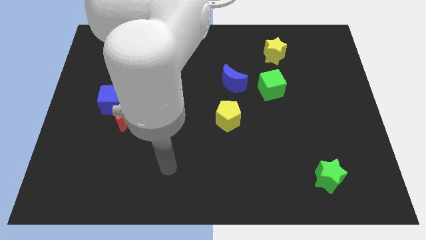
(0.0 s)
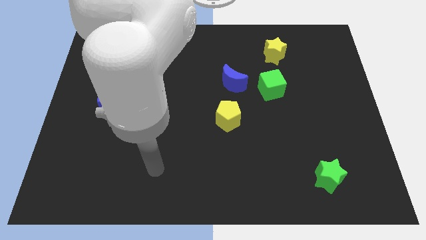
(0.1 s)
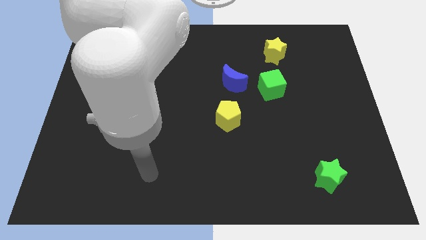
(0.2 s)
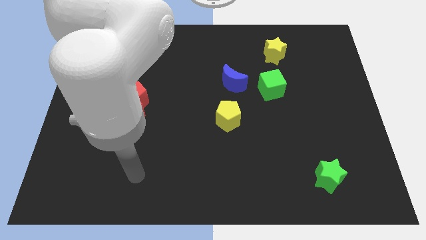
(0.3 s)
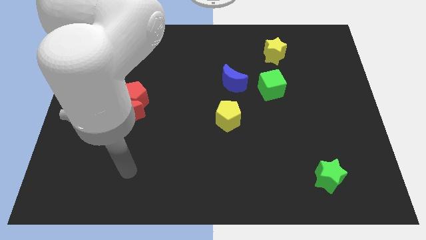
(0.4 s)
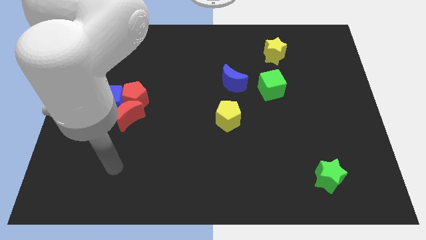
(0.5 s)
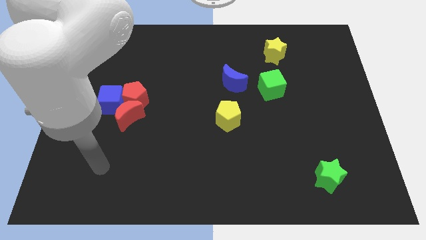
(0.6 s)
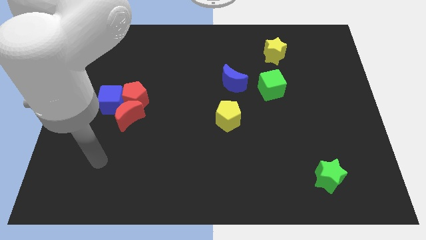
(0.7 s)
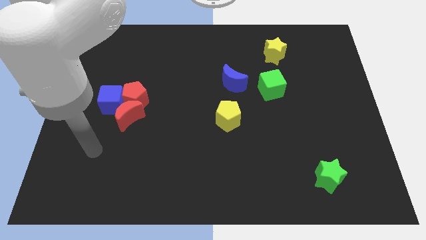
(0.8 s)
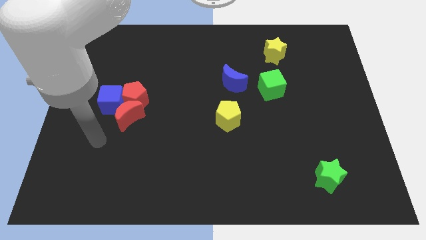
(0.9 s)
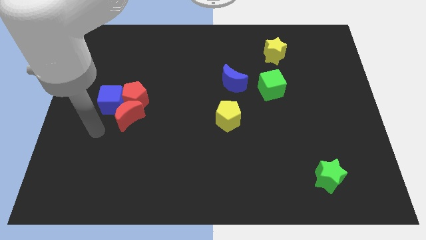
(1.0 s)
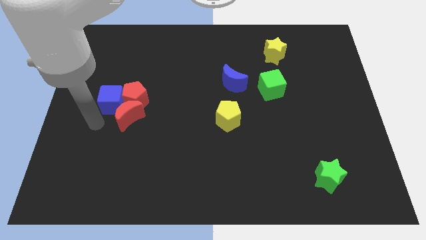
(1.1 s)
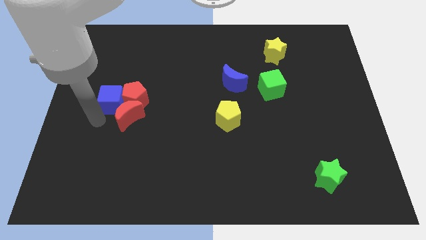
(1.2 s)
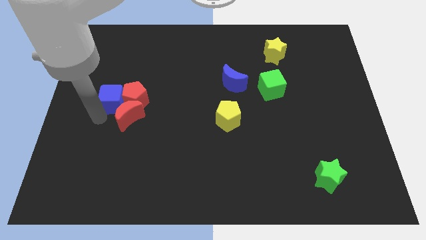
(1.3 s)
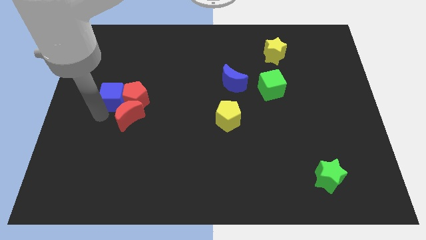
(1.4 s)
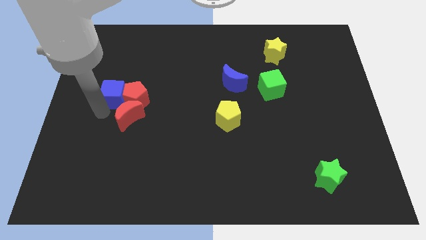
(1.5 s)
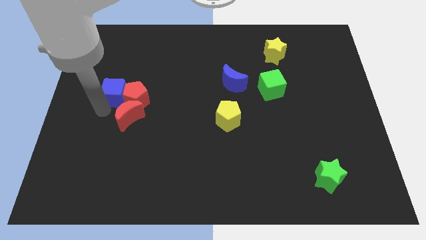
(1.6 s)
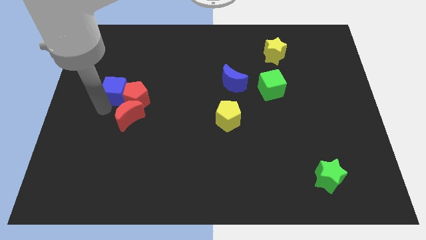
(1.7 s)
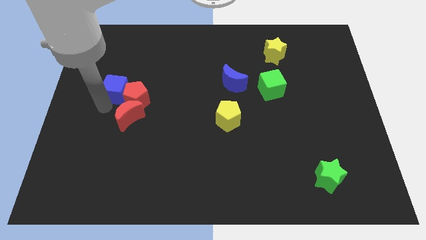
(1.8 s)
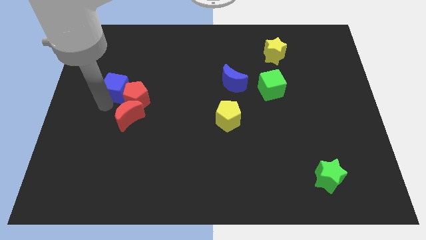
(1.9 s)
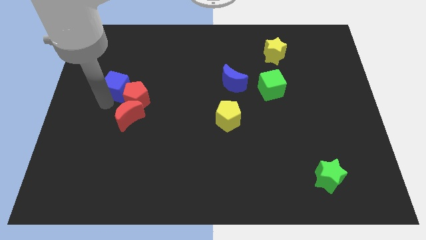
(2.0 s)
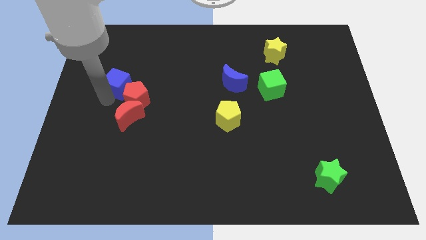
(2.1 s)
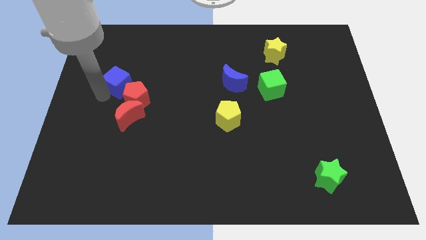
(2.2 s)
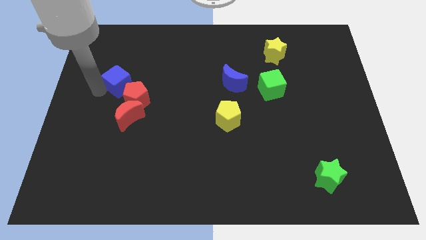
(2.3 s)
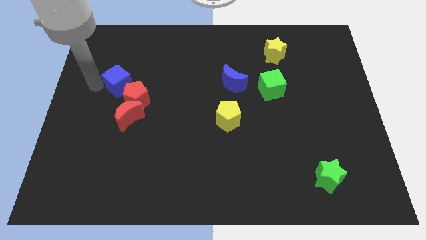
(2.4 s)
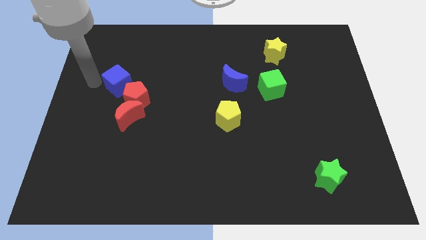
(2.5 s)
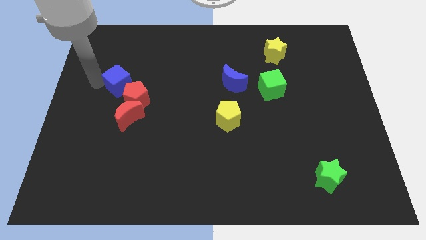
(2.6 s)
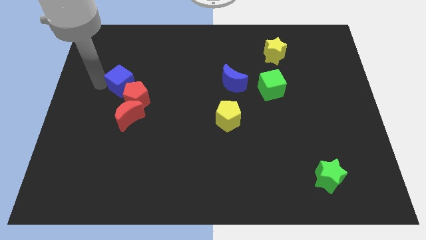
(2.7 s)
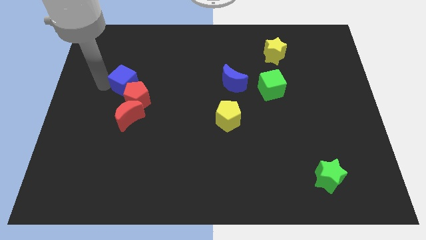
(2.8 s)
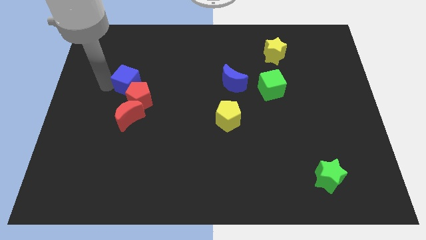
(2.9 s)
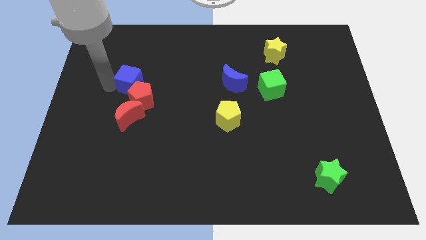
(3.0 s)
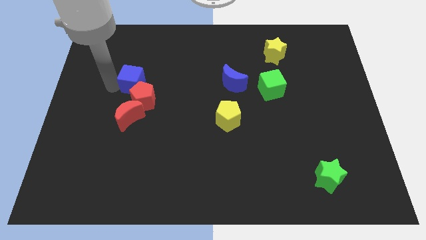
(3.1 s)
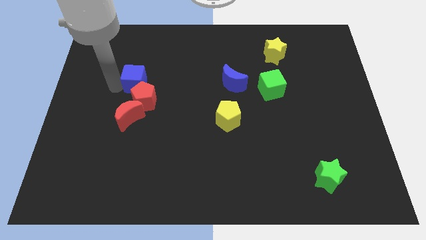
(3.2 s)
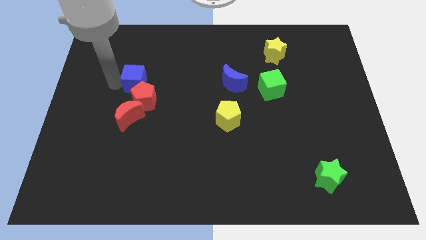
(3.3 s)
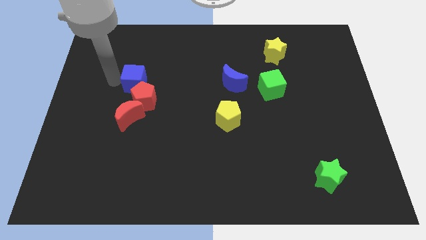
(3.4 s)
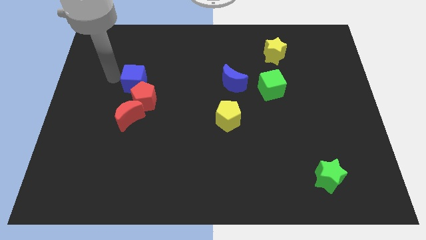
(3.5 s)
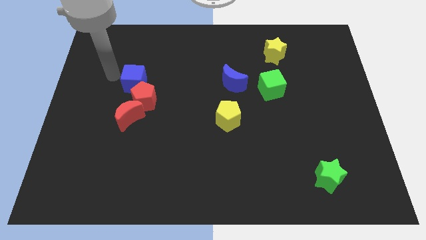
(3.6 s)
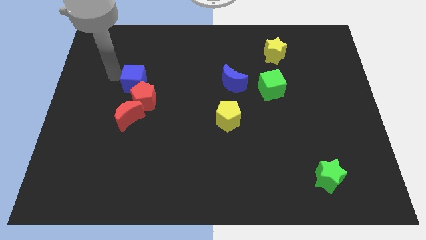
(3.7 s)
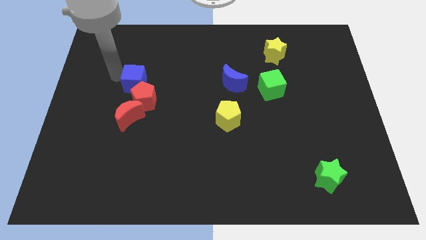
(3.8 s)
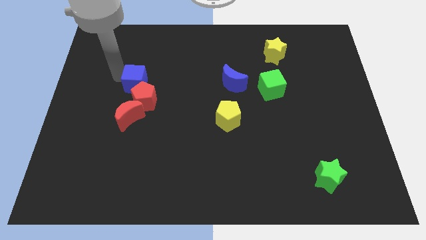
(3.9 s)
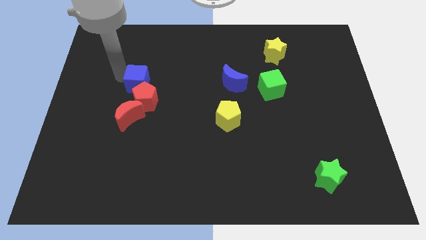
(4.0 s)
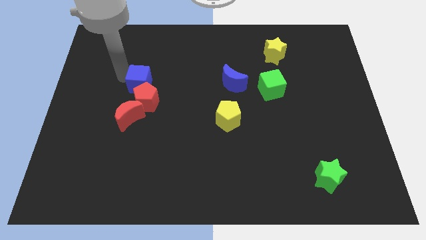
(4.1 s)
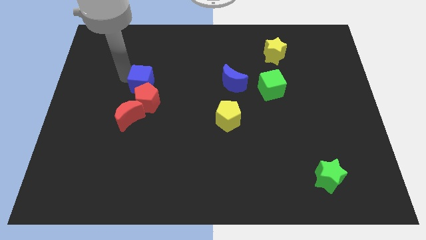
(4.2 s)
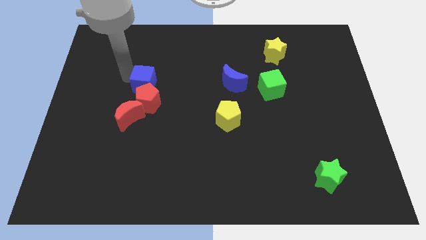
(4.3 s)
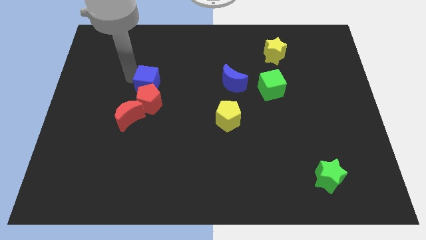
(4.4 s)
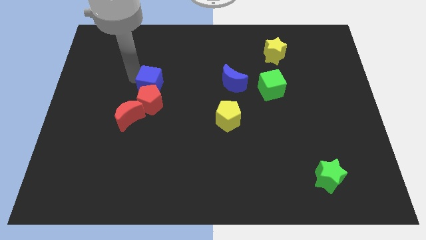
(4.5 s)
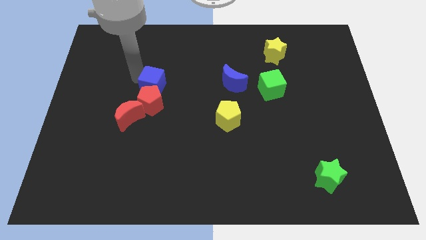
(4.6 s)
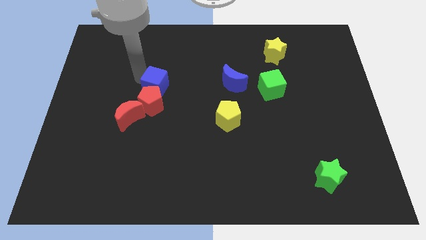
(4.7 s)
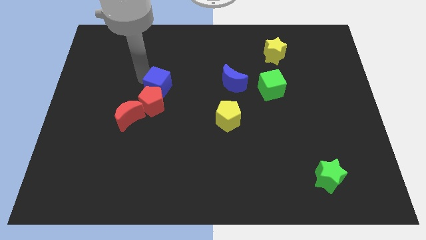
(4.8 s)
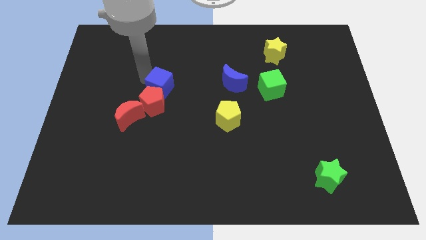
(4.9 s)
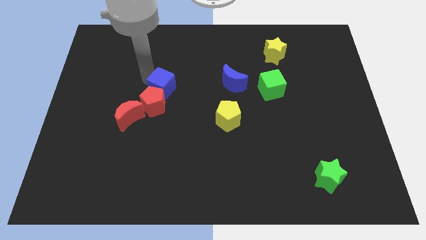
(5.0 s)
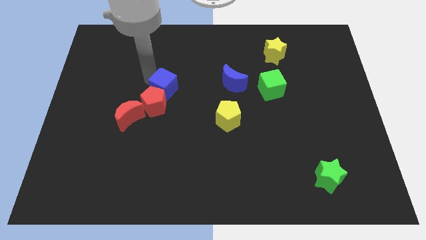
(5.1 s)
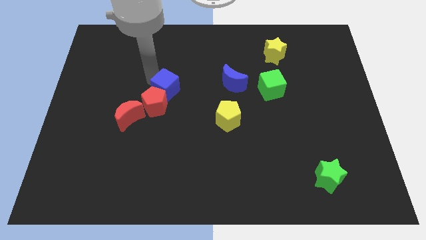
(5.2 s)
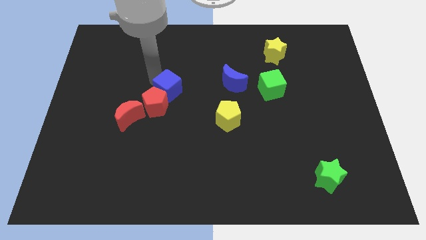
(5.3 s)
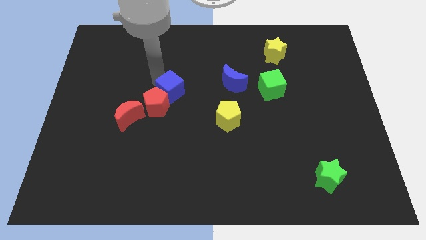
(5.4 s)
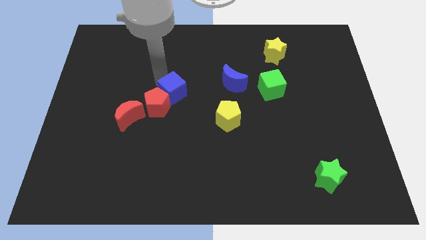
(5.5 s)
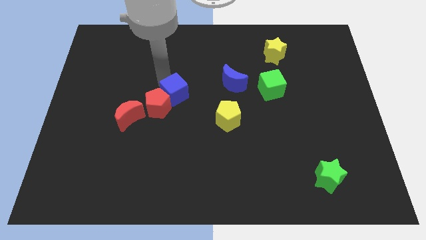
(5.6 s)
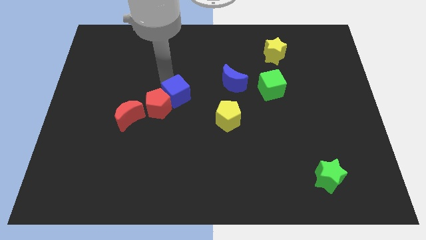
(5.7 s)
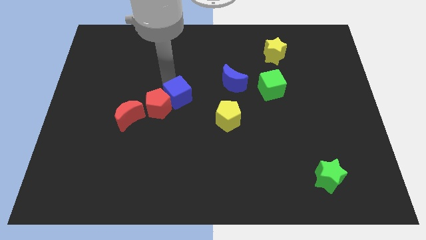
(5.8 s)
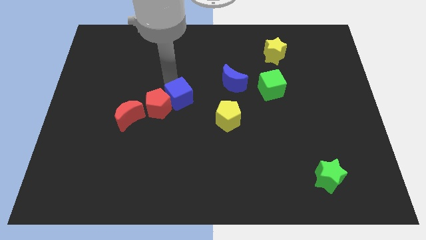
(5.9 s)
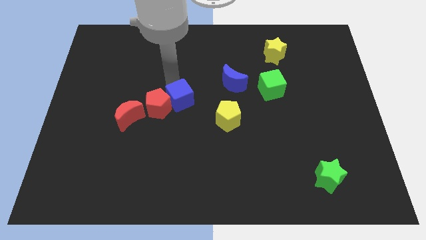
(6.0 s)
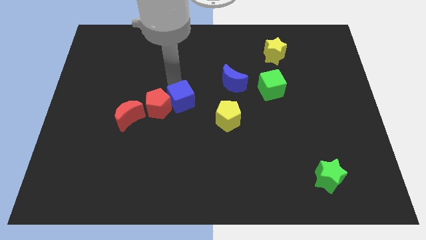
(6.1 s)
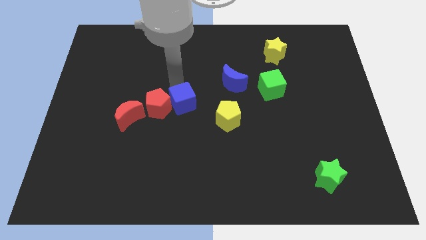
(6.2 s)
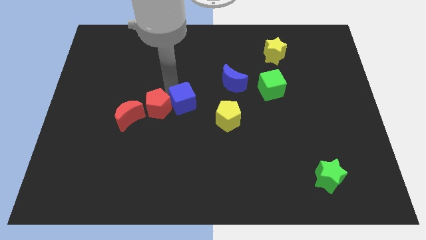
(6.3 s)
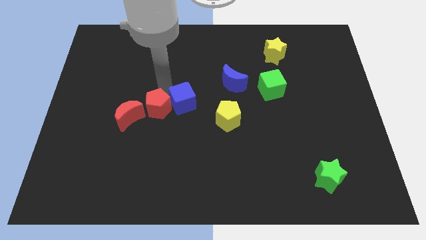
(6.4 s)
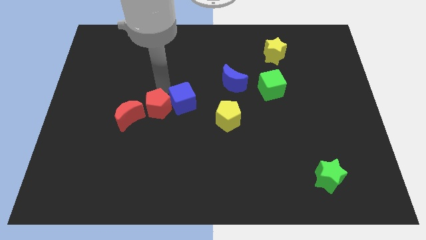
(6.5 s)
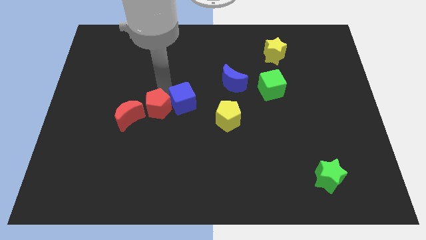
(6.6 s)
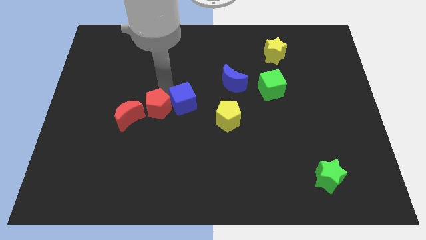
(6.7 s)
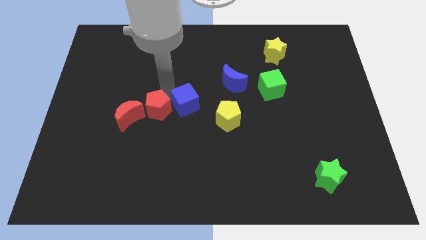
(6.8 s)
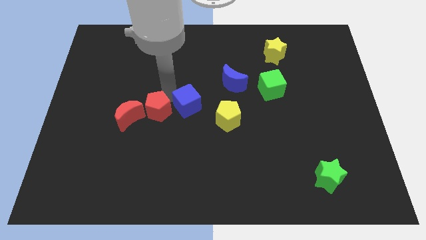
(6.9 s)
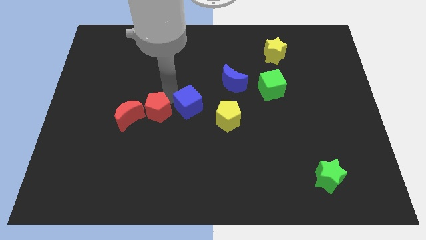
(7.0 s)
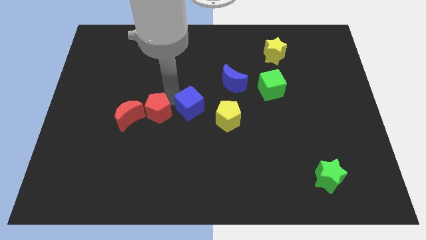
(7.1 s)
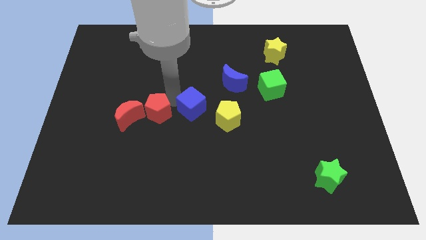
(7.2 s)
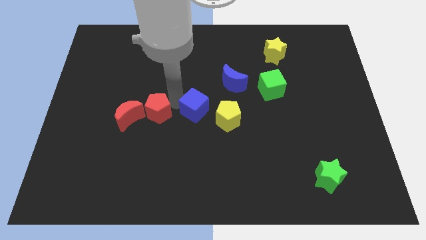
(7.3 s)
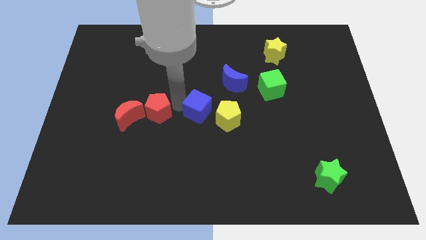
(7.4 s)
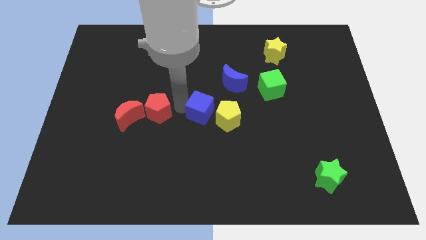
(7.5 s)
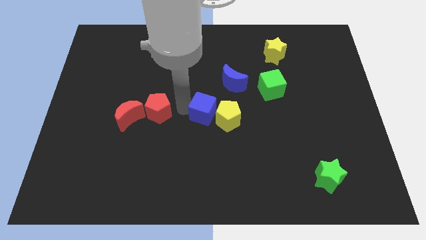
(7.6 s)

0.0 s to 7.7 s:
push the blue cube to the yellow pentagon
